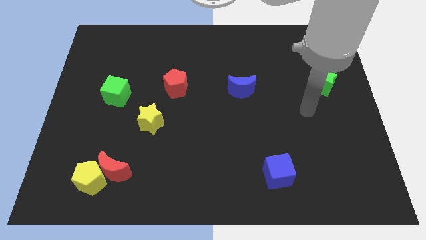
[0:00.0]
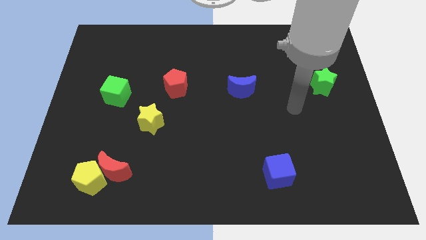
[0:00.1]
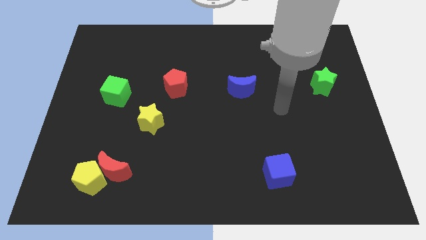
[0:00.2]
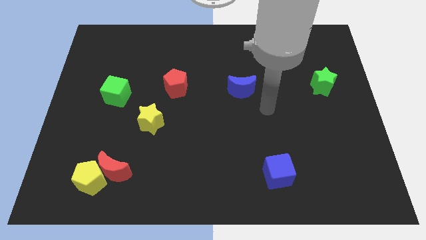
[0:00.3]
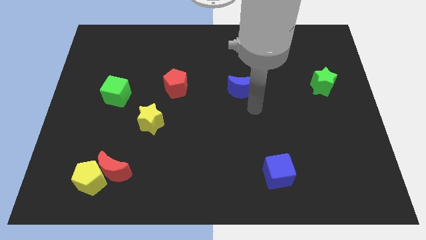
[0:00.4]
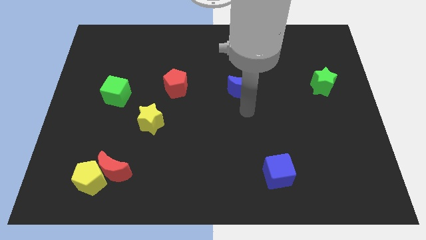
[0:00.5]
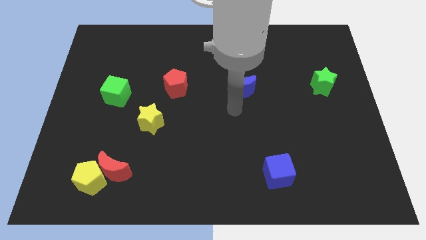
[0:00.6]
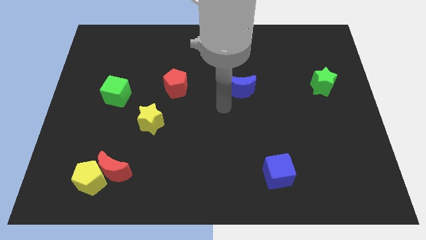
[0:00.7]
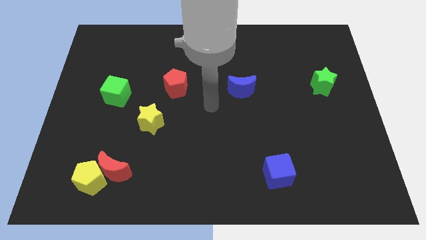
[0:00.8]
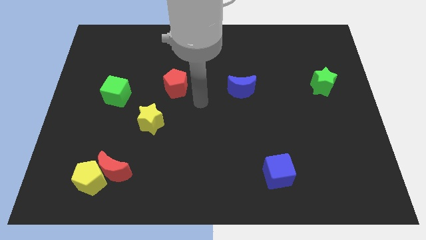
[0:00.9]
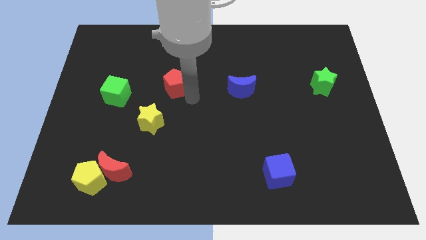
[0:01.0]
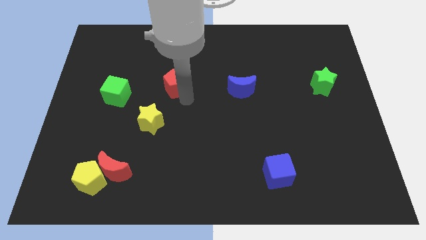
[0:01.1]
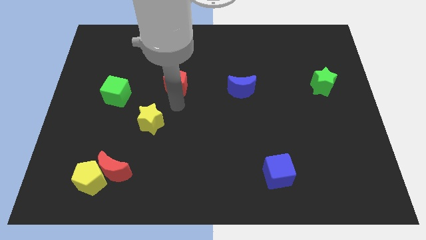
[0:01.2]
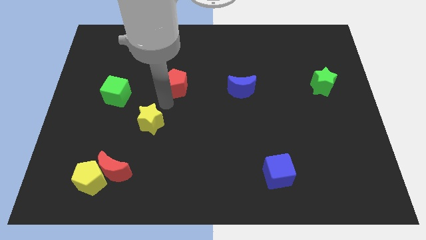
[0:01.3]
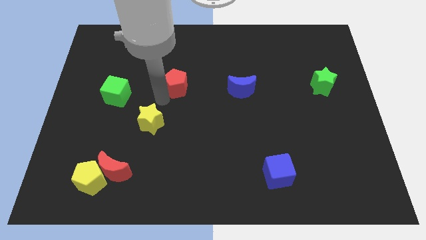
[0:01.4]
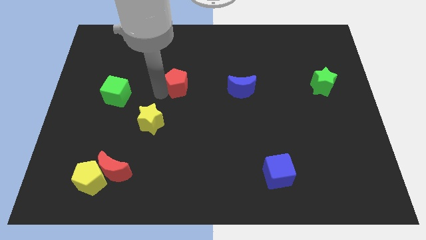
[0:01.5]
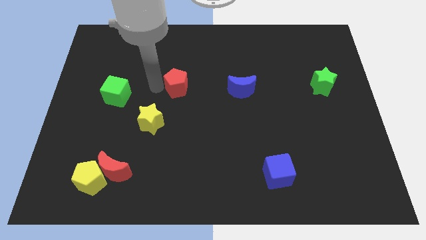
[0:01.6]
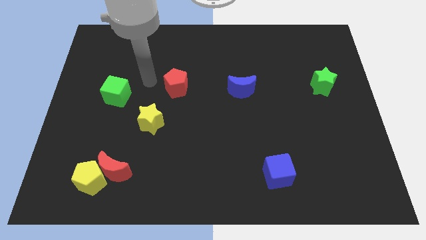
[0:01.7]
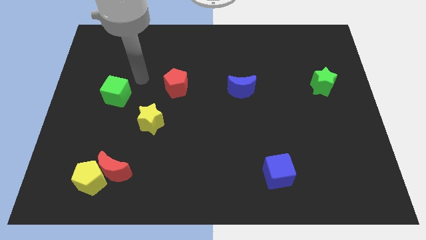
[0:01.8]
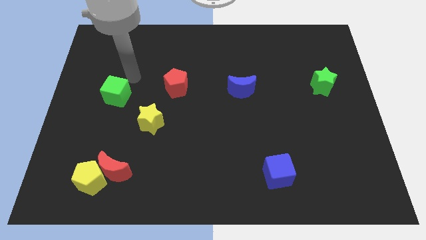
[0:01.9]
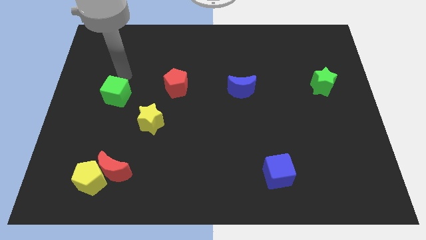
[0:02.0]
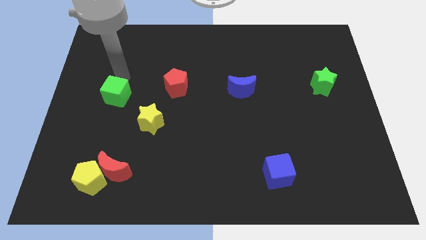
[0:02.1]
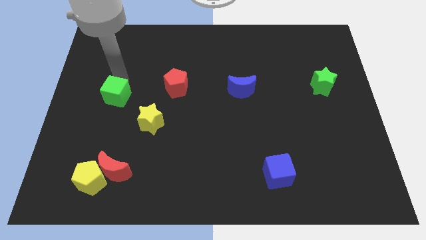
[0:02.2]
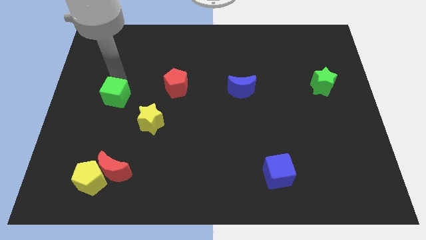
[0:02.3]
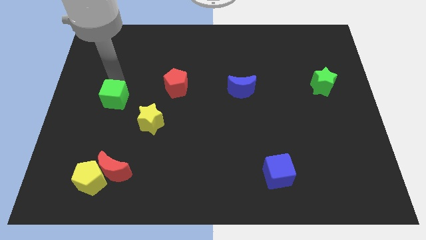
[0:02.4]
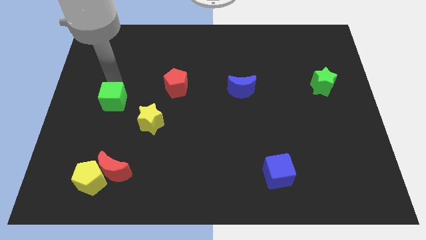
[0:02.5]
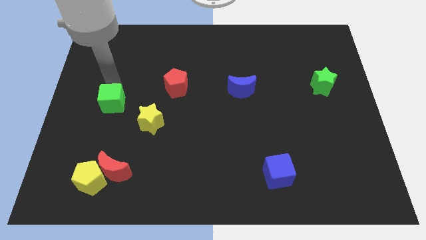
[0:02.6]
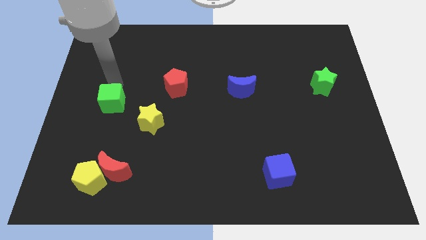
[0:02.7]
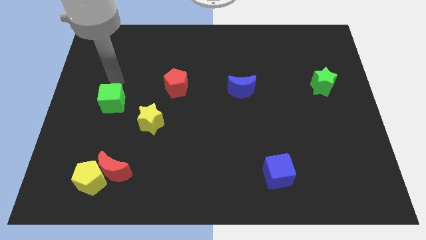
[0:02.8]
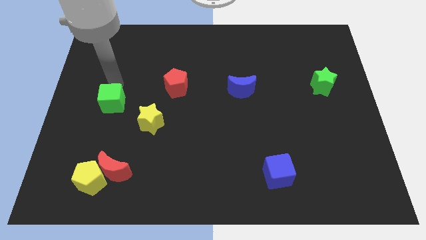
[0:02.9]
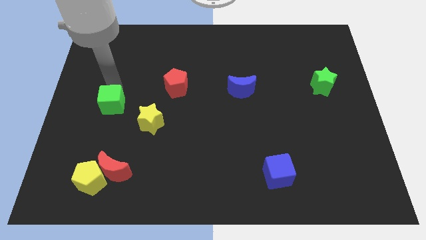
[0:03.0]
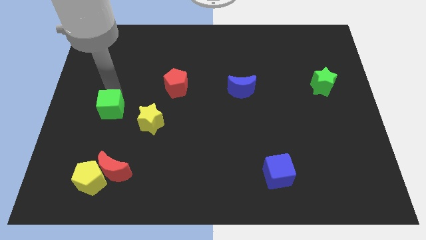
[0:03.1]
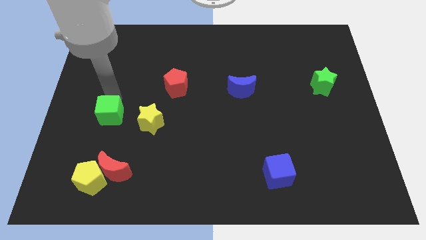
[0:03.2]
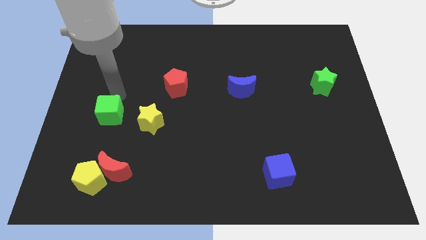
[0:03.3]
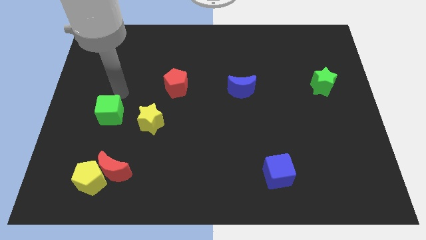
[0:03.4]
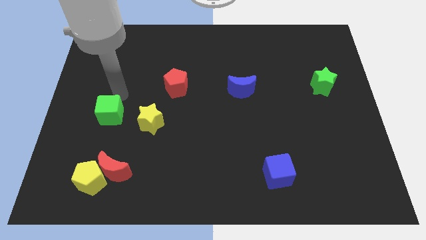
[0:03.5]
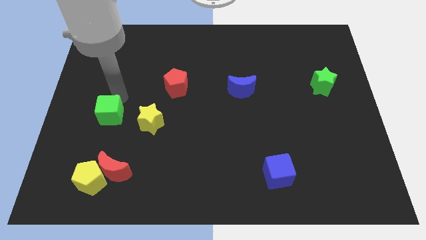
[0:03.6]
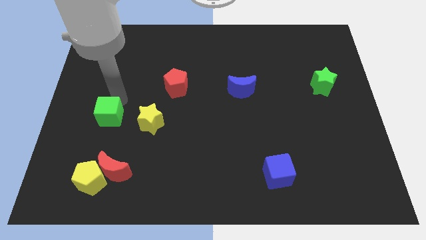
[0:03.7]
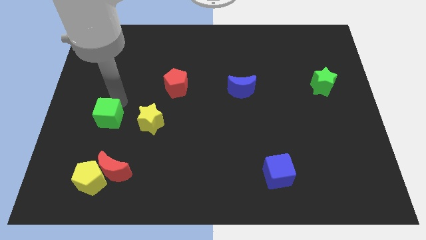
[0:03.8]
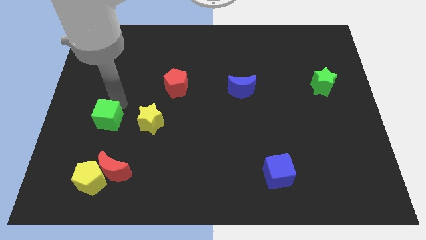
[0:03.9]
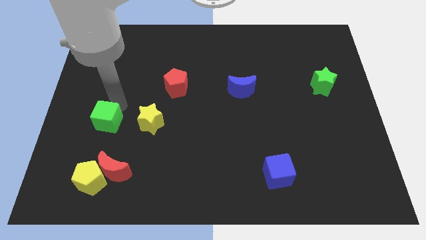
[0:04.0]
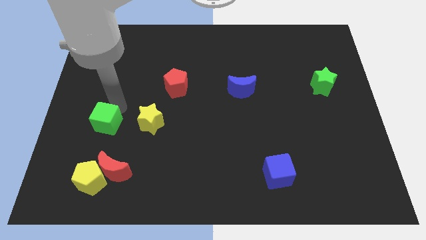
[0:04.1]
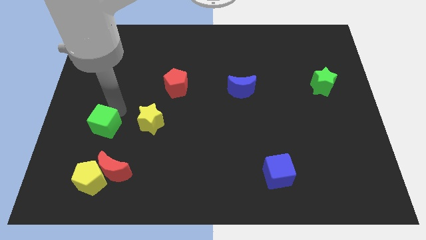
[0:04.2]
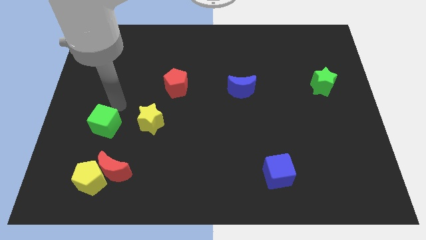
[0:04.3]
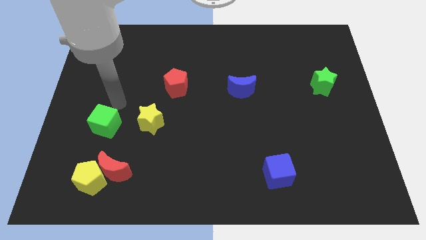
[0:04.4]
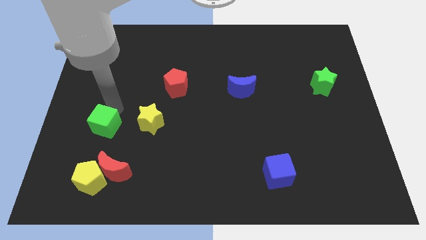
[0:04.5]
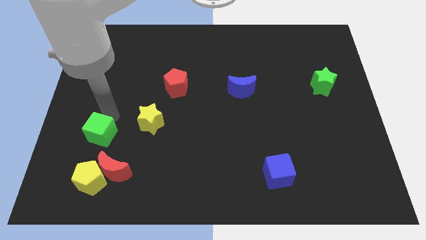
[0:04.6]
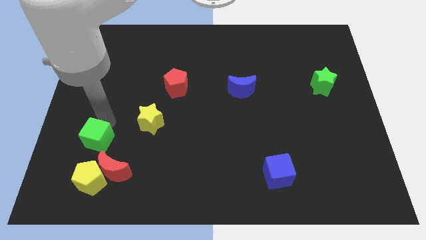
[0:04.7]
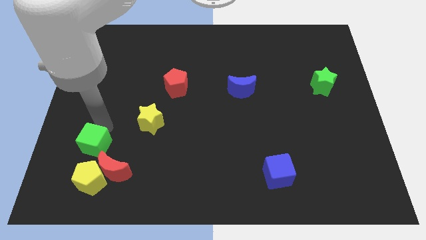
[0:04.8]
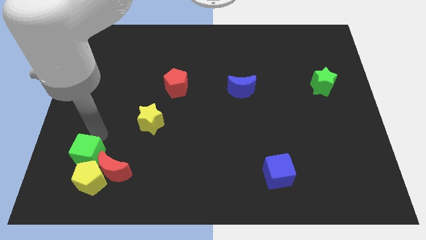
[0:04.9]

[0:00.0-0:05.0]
put the green cube close to the yellow pentagon

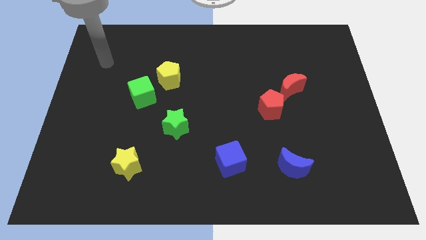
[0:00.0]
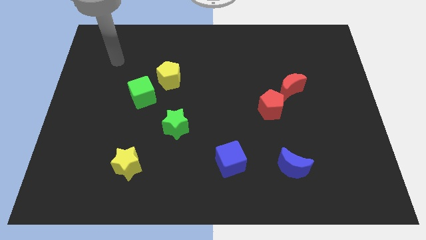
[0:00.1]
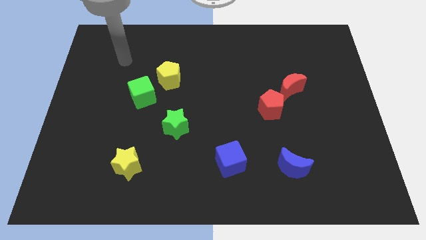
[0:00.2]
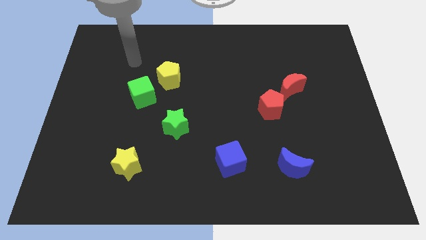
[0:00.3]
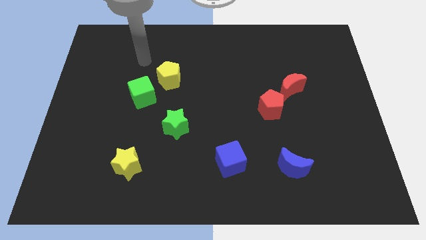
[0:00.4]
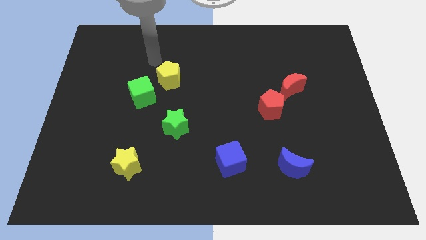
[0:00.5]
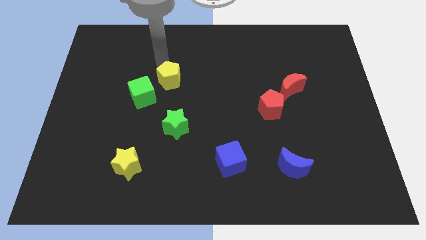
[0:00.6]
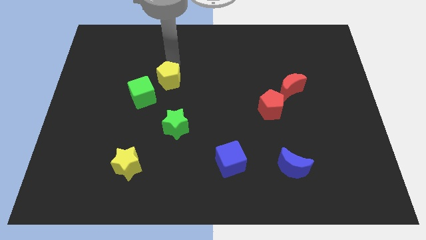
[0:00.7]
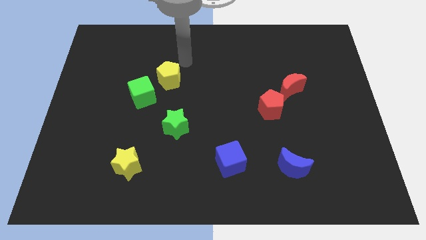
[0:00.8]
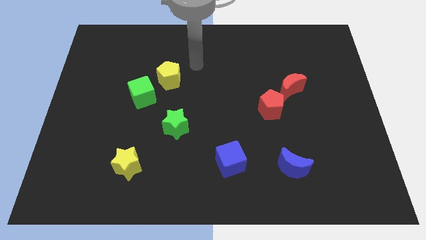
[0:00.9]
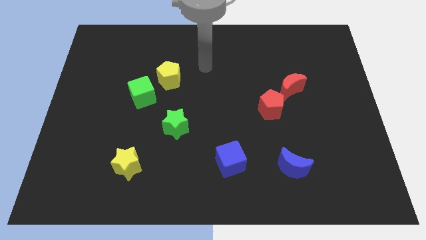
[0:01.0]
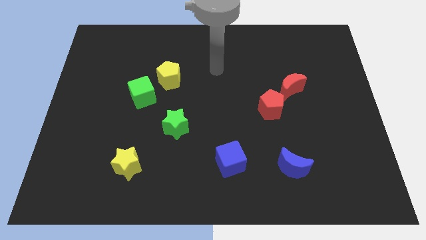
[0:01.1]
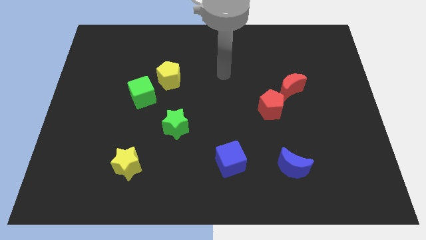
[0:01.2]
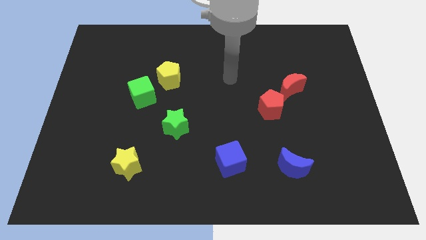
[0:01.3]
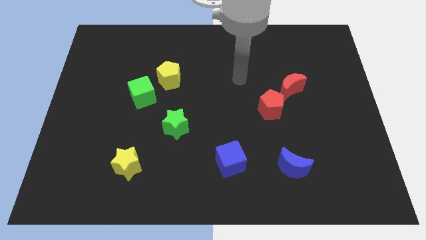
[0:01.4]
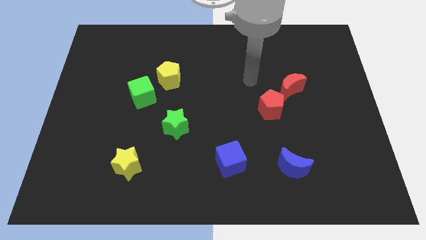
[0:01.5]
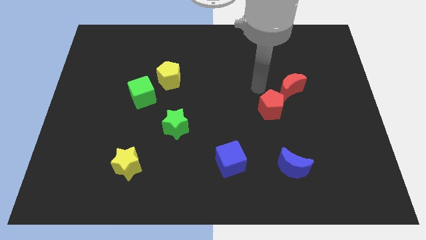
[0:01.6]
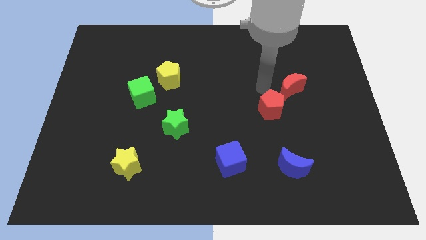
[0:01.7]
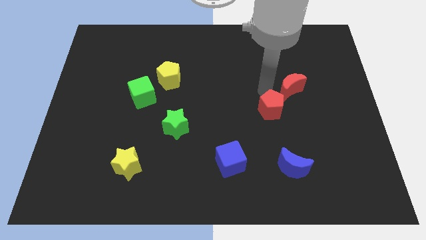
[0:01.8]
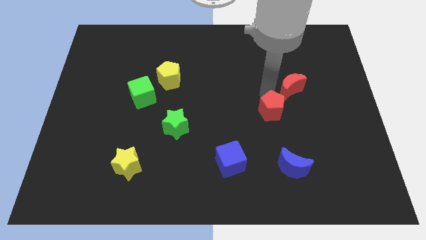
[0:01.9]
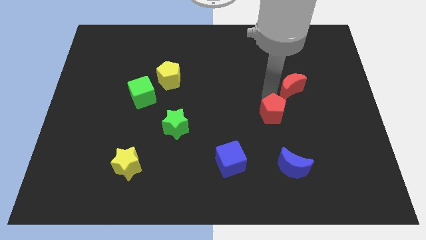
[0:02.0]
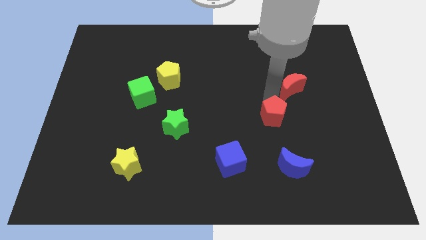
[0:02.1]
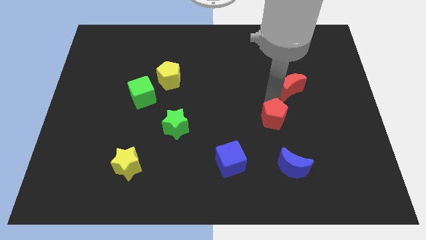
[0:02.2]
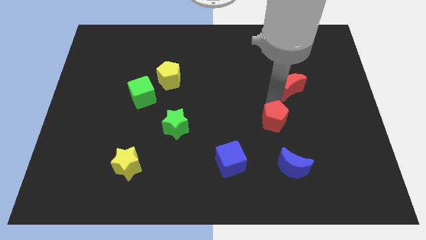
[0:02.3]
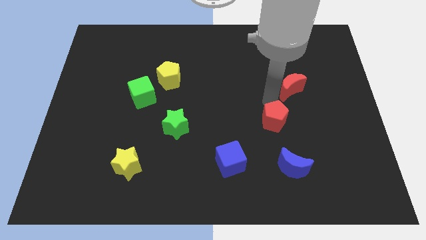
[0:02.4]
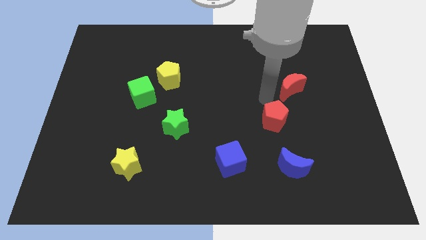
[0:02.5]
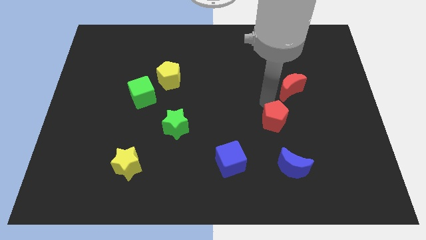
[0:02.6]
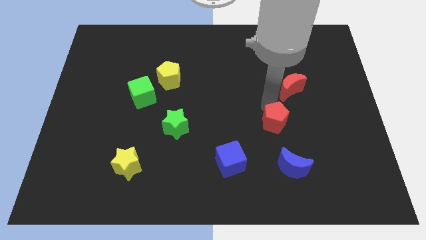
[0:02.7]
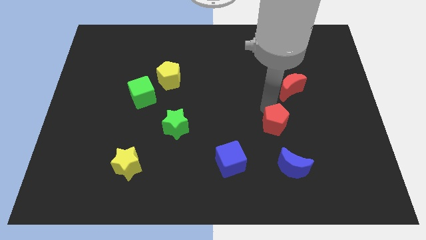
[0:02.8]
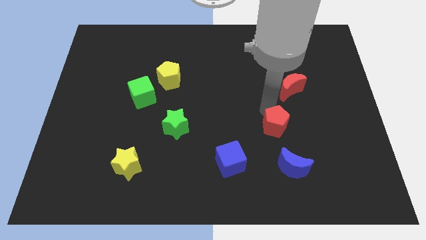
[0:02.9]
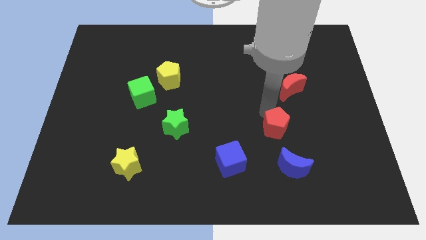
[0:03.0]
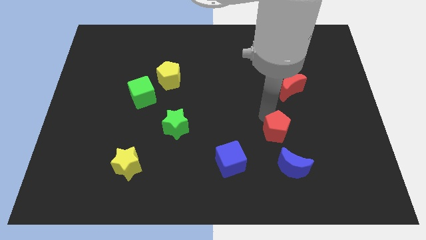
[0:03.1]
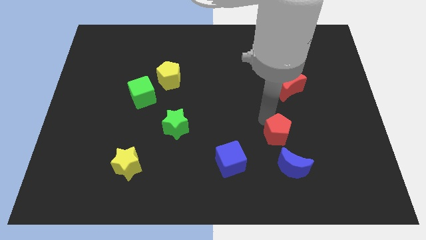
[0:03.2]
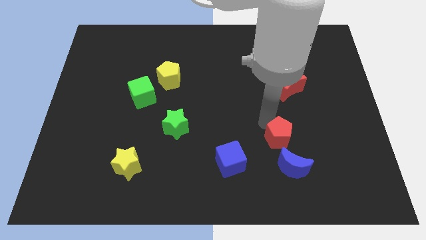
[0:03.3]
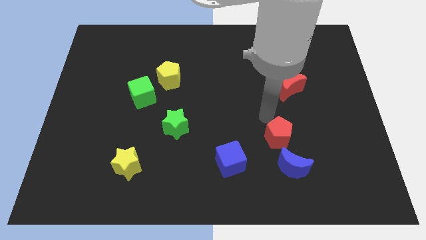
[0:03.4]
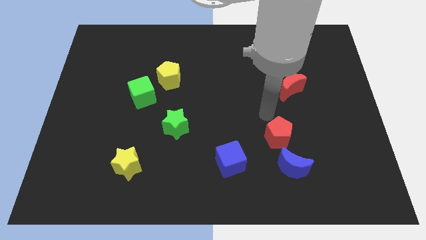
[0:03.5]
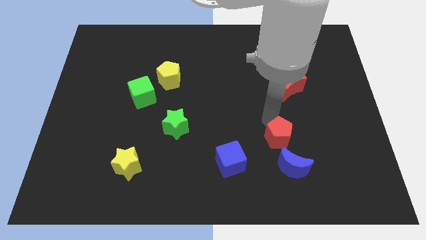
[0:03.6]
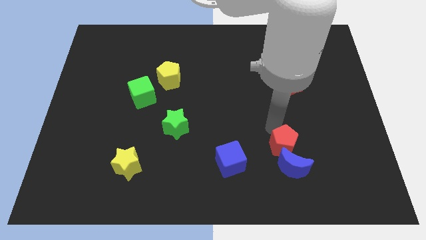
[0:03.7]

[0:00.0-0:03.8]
put the red pentagon close to the blue moon
